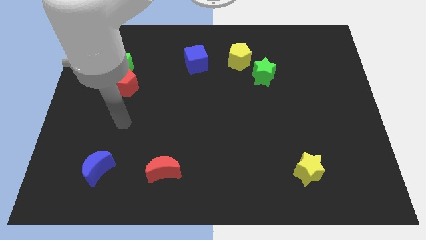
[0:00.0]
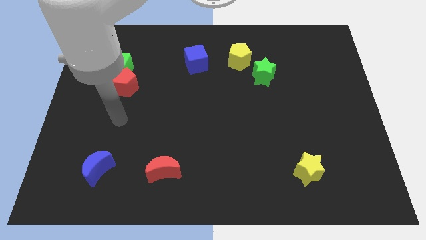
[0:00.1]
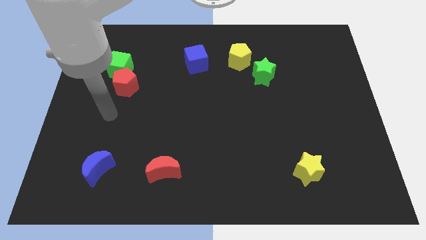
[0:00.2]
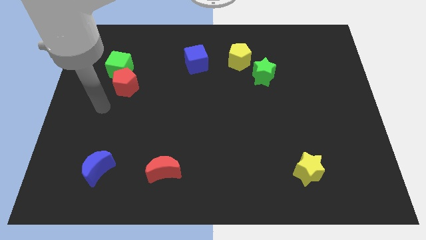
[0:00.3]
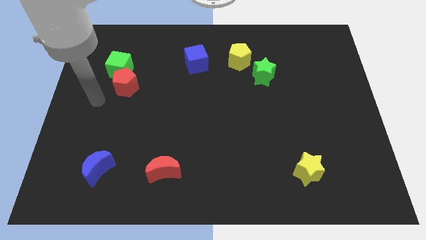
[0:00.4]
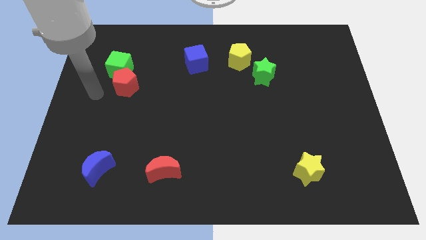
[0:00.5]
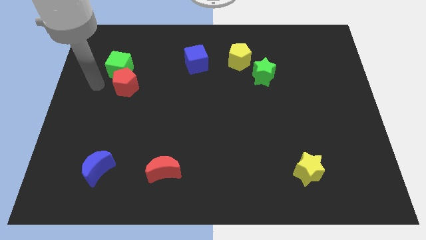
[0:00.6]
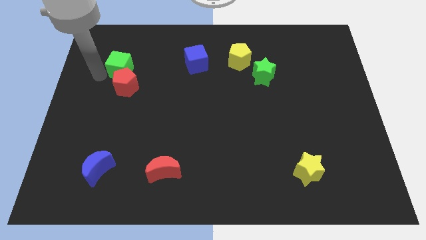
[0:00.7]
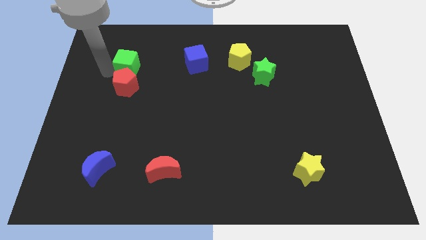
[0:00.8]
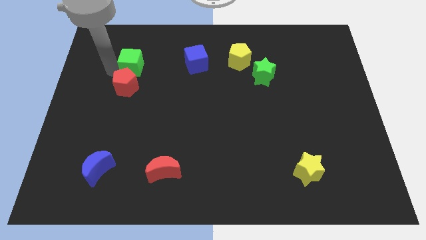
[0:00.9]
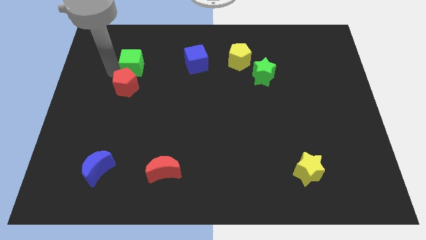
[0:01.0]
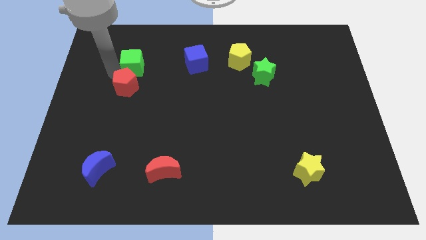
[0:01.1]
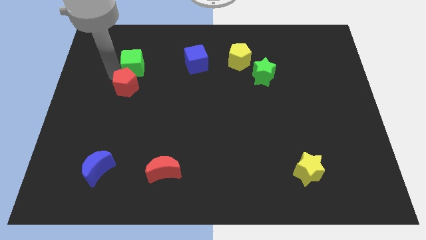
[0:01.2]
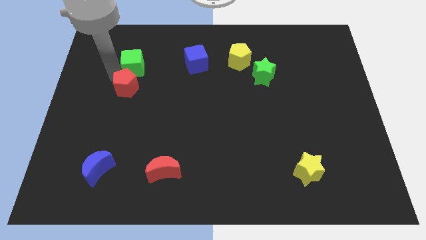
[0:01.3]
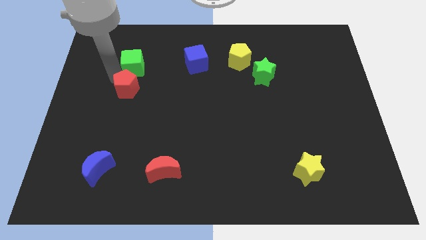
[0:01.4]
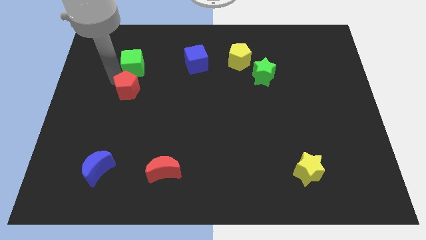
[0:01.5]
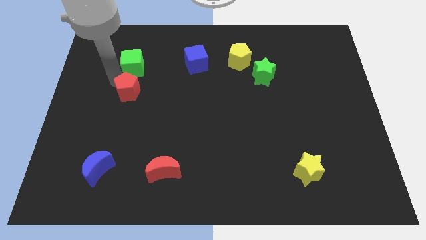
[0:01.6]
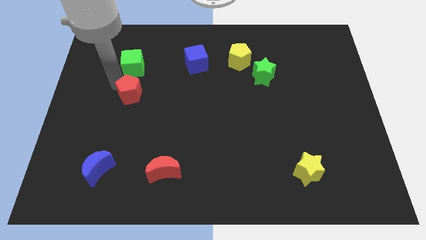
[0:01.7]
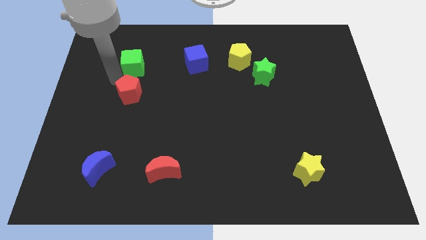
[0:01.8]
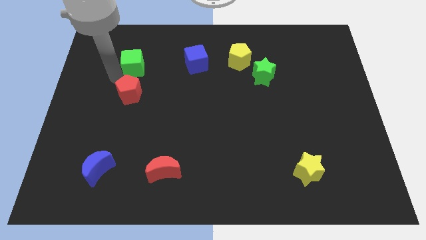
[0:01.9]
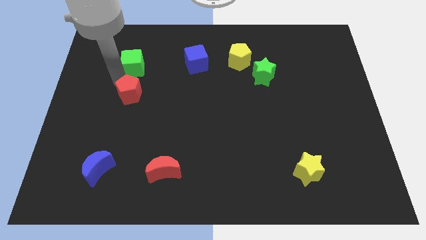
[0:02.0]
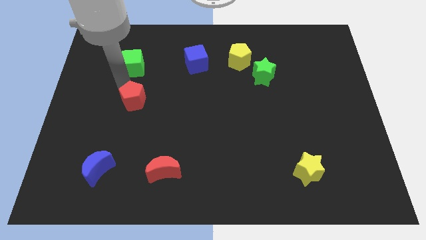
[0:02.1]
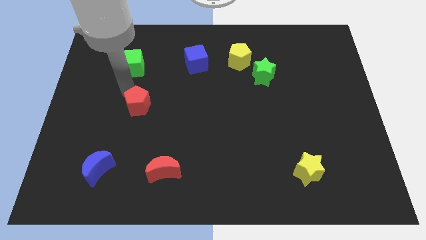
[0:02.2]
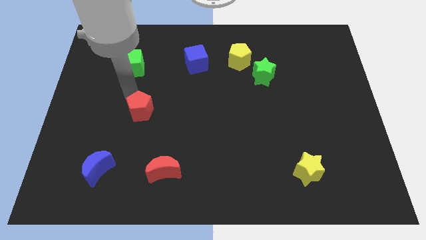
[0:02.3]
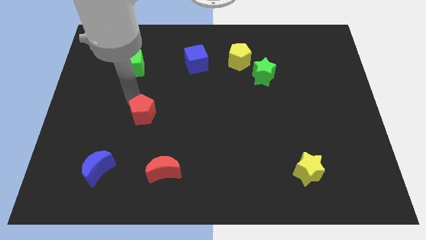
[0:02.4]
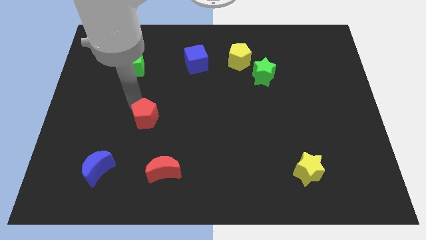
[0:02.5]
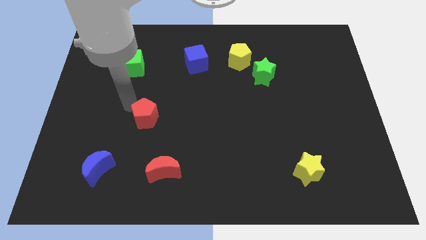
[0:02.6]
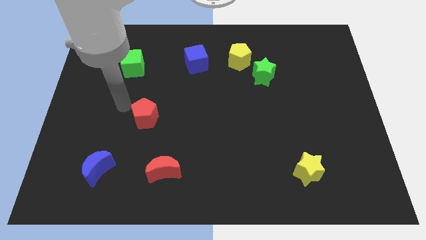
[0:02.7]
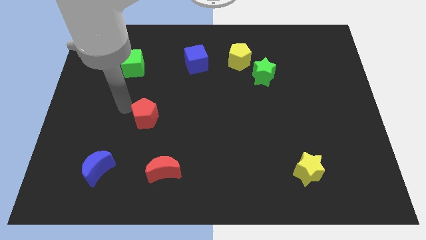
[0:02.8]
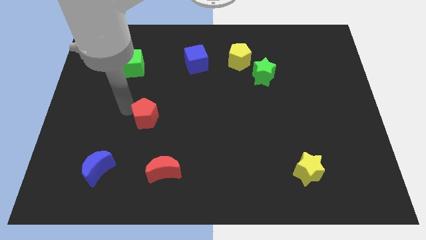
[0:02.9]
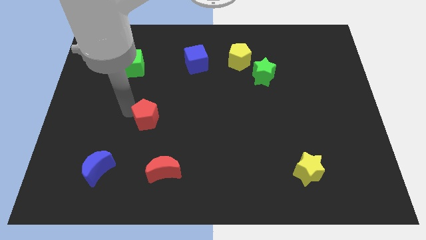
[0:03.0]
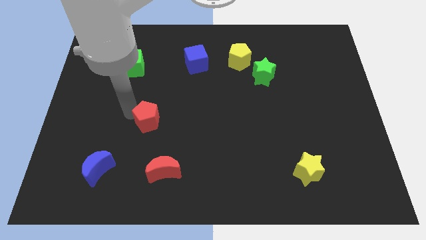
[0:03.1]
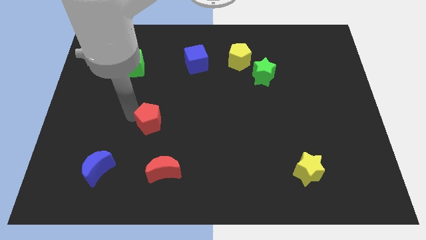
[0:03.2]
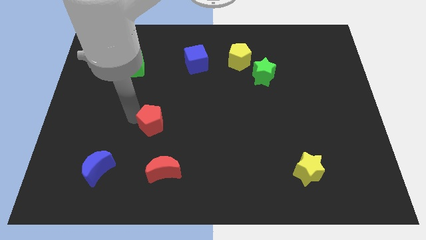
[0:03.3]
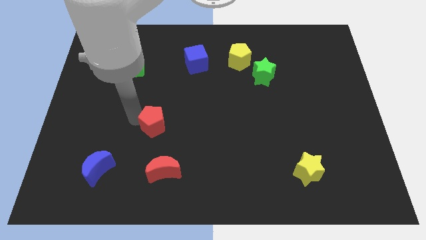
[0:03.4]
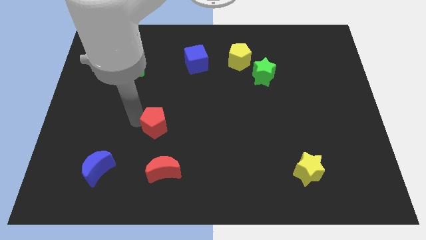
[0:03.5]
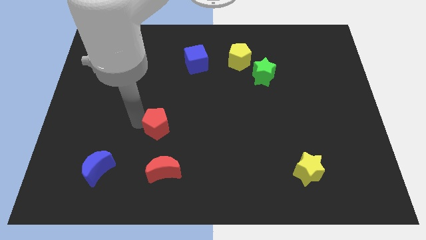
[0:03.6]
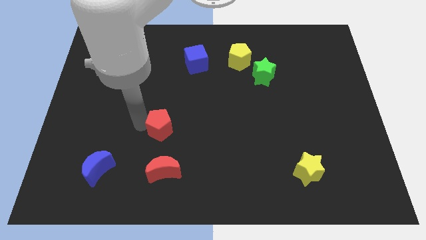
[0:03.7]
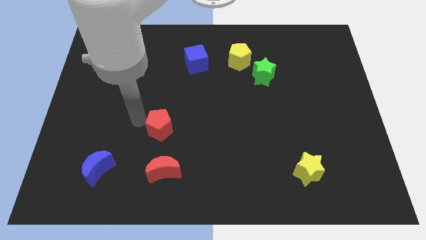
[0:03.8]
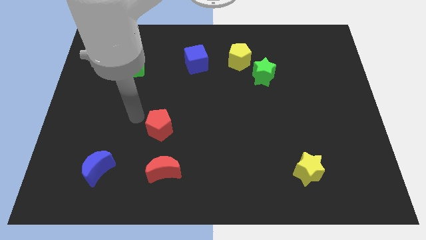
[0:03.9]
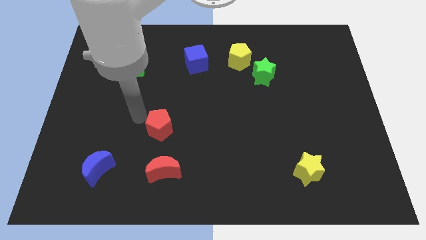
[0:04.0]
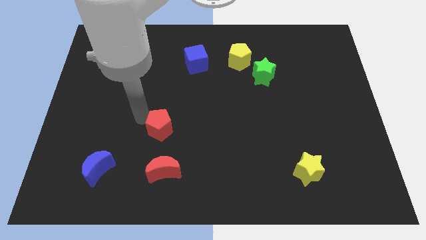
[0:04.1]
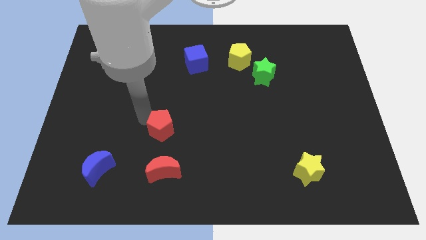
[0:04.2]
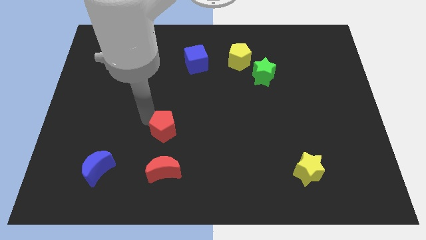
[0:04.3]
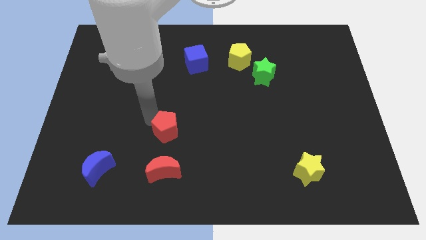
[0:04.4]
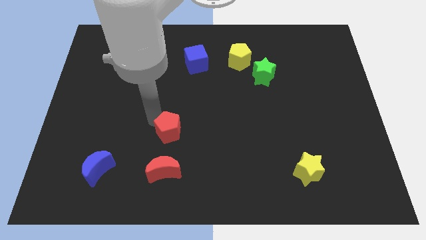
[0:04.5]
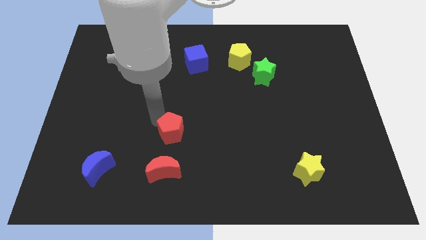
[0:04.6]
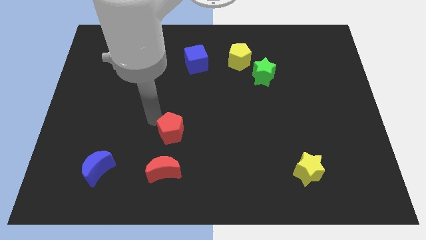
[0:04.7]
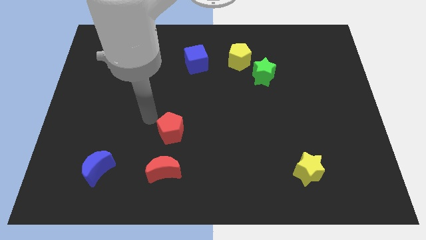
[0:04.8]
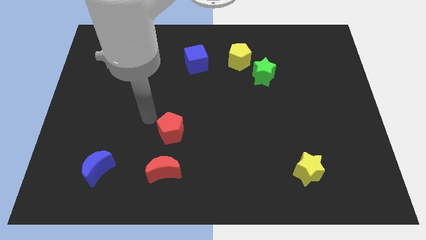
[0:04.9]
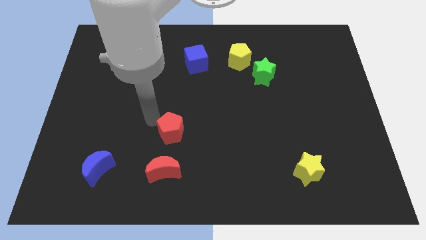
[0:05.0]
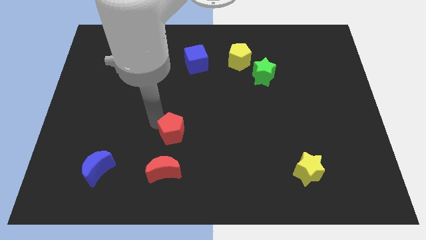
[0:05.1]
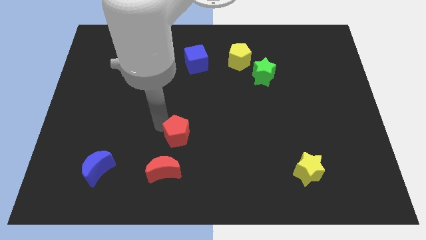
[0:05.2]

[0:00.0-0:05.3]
slide the red pentagon downwards and right diagonally

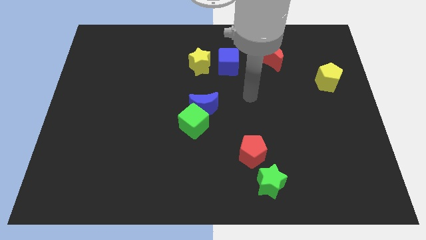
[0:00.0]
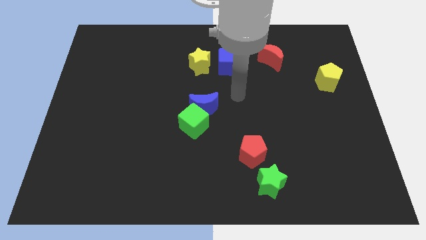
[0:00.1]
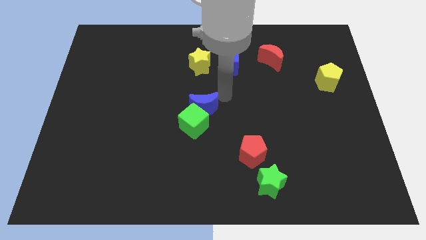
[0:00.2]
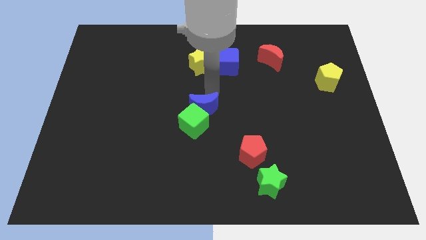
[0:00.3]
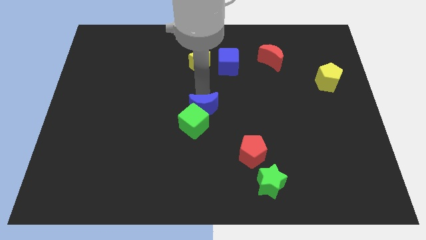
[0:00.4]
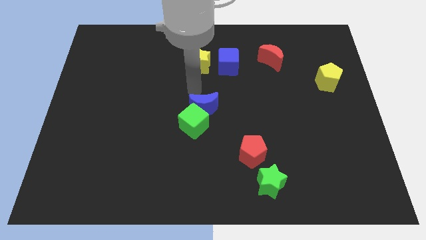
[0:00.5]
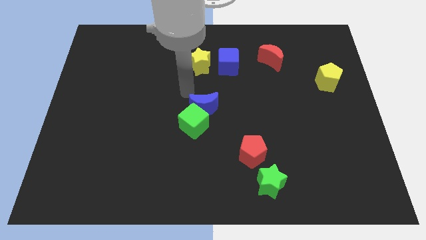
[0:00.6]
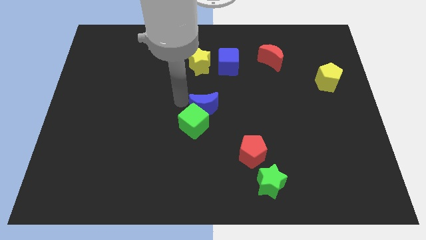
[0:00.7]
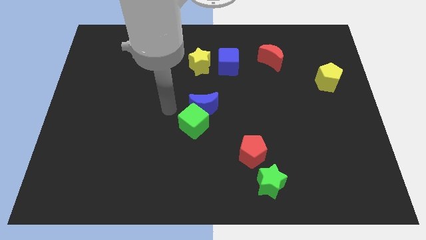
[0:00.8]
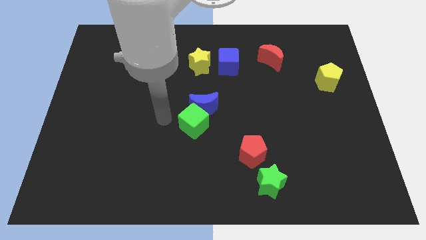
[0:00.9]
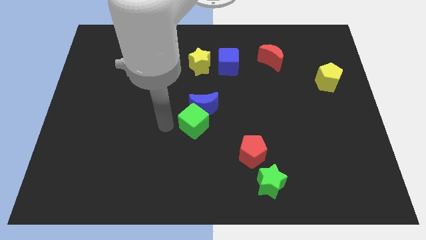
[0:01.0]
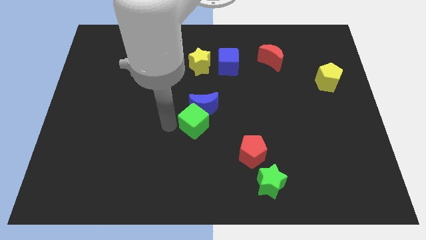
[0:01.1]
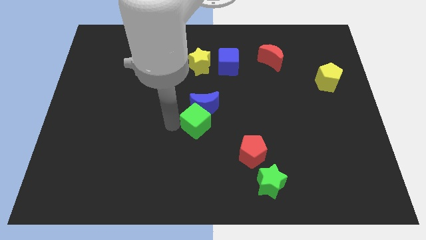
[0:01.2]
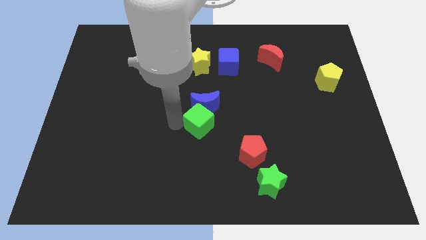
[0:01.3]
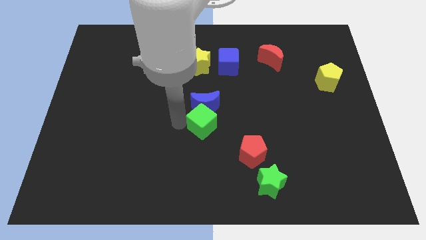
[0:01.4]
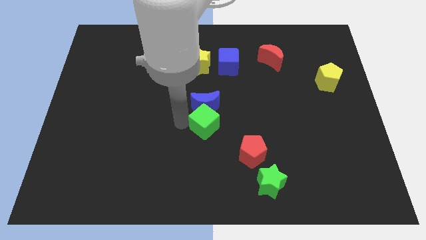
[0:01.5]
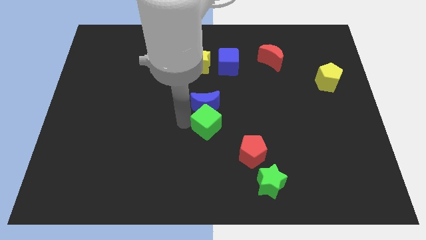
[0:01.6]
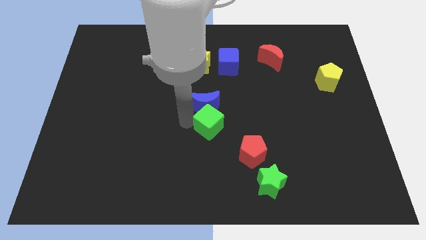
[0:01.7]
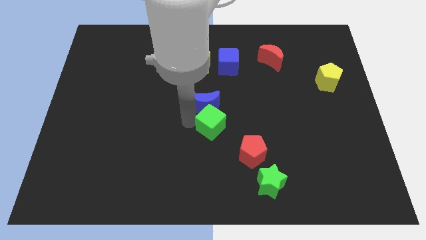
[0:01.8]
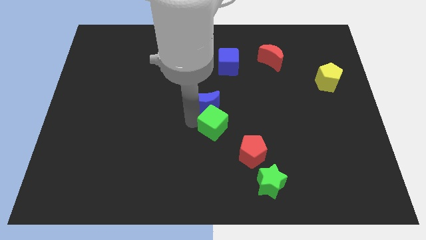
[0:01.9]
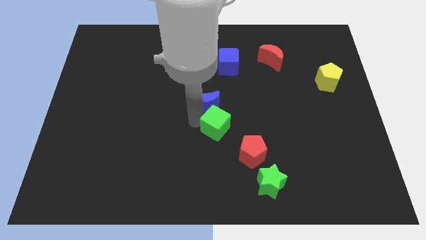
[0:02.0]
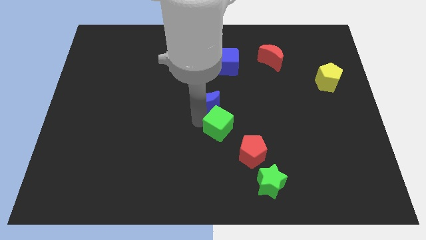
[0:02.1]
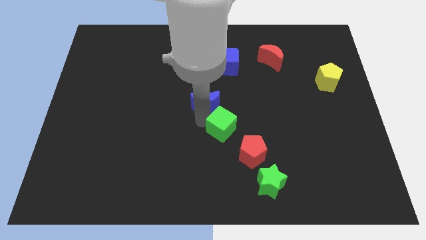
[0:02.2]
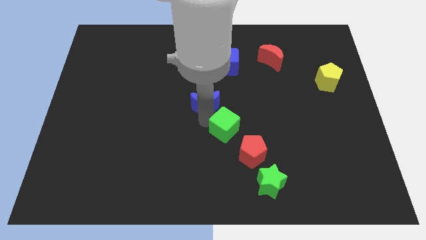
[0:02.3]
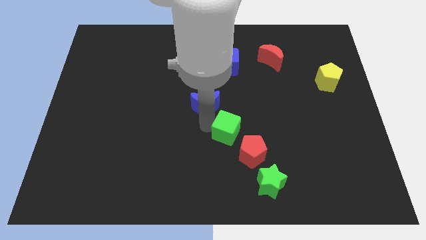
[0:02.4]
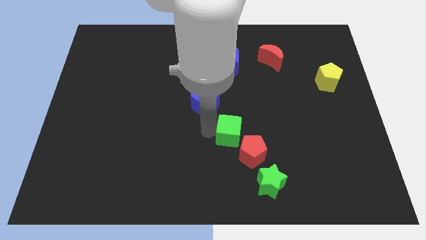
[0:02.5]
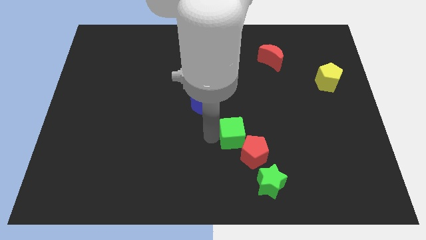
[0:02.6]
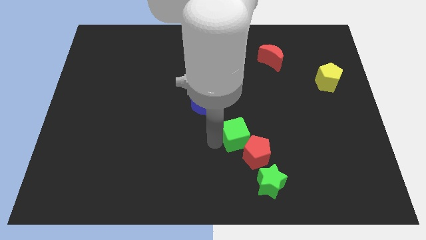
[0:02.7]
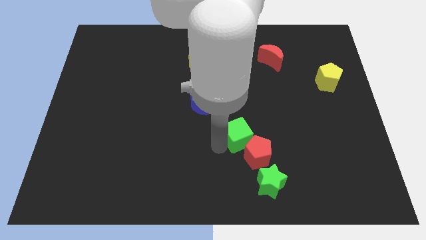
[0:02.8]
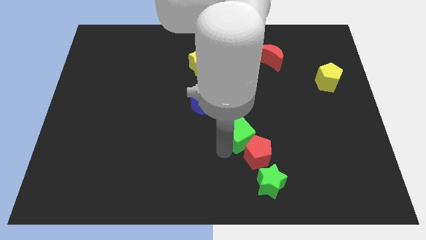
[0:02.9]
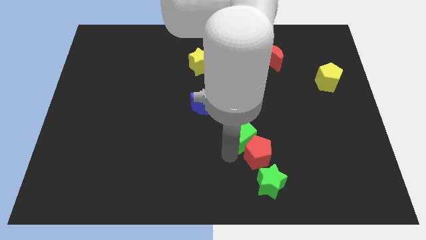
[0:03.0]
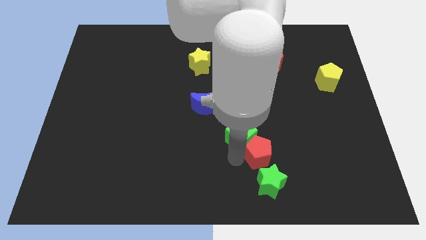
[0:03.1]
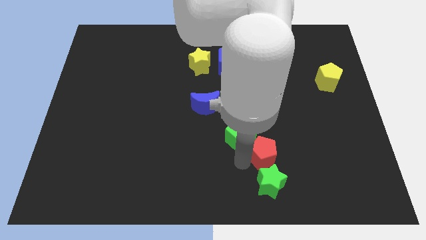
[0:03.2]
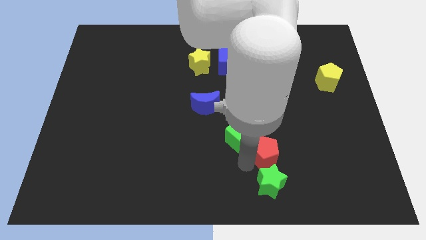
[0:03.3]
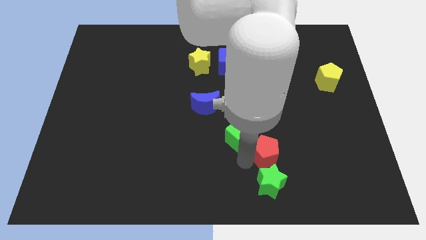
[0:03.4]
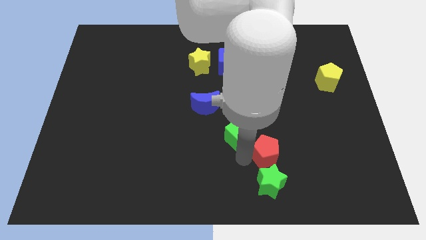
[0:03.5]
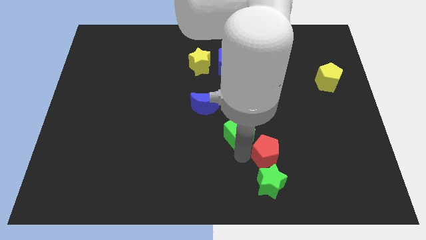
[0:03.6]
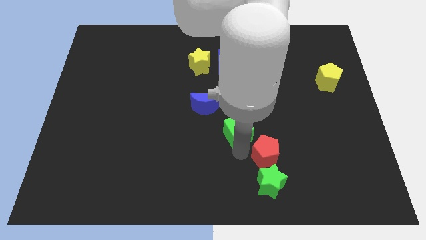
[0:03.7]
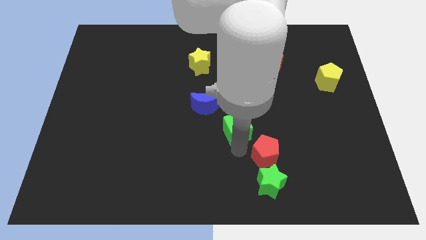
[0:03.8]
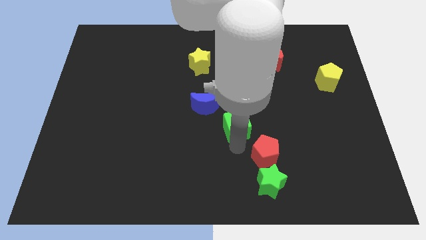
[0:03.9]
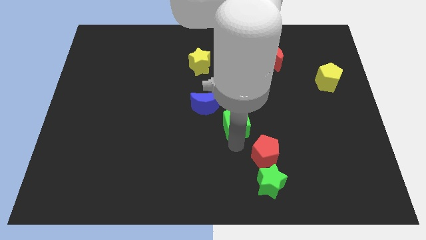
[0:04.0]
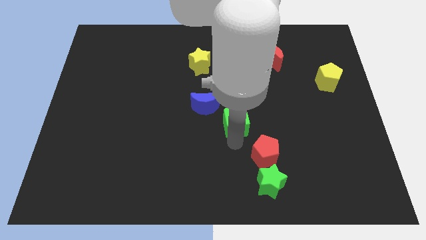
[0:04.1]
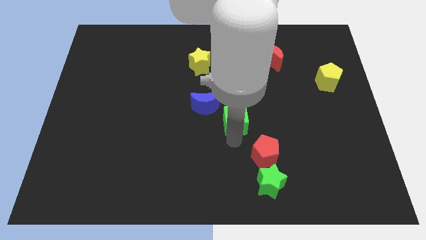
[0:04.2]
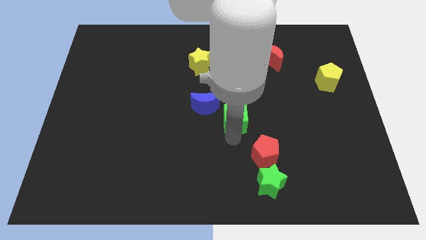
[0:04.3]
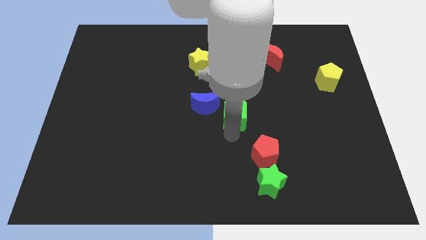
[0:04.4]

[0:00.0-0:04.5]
slightly slide the green cube up and right diagonally
